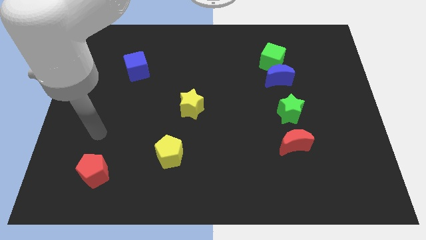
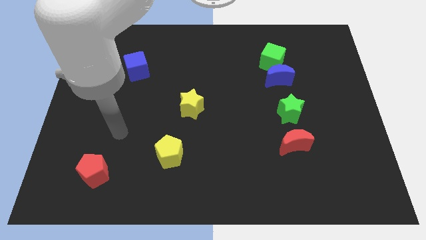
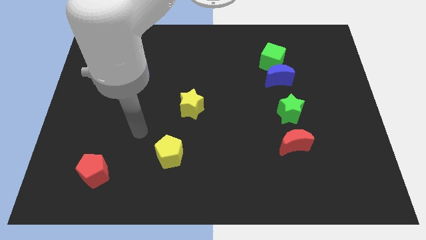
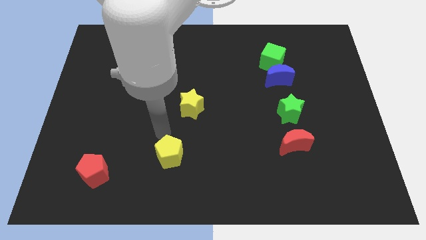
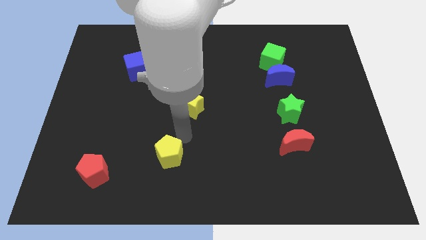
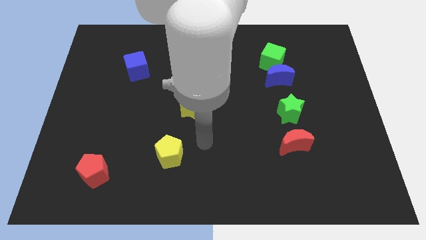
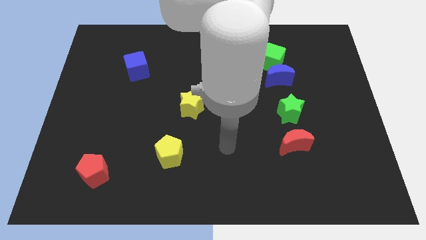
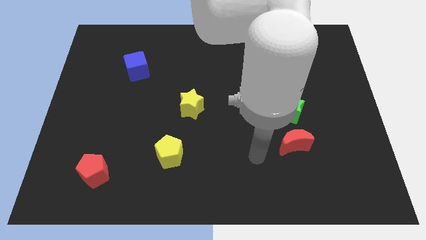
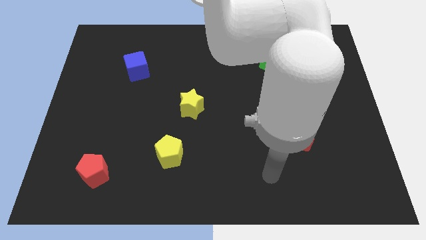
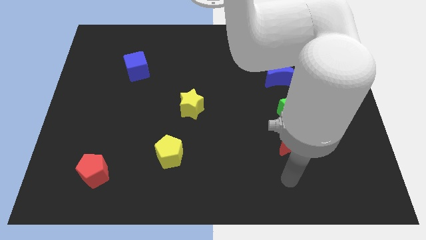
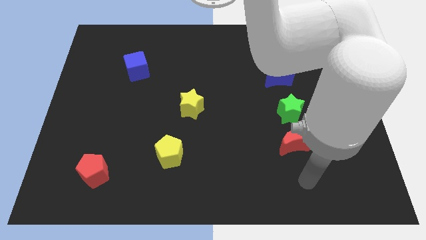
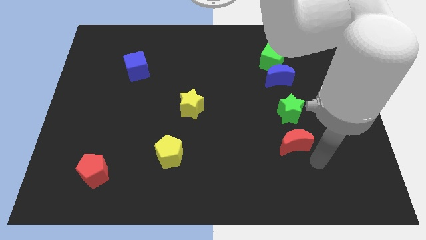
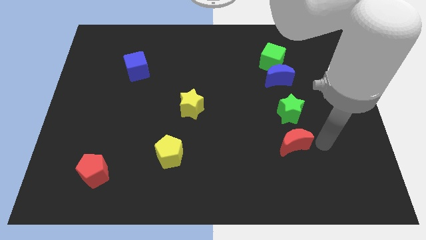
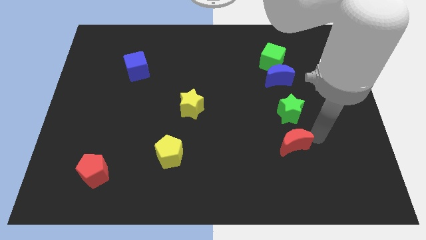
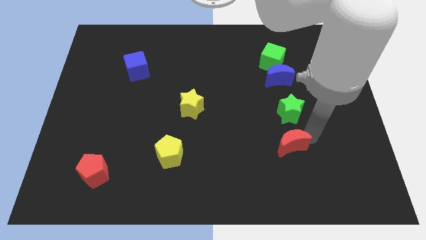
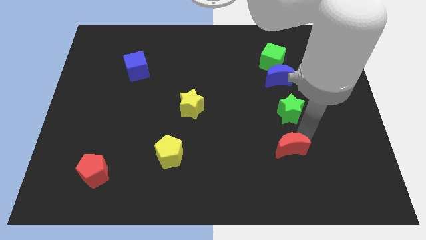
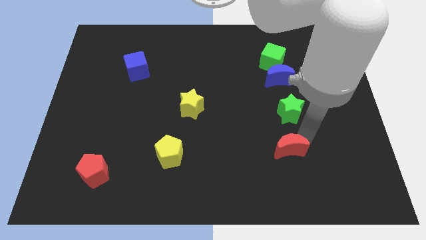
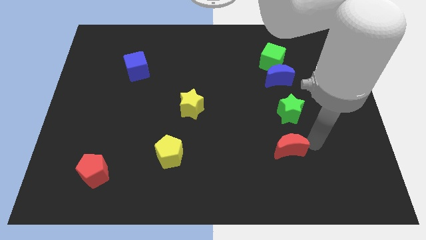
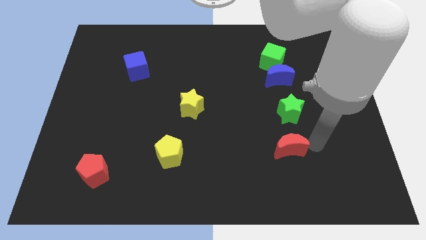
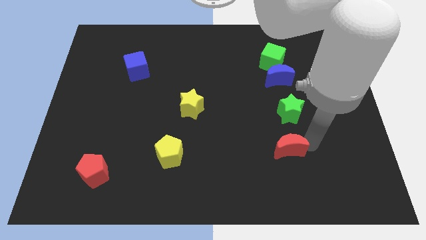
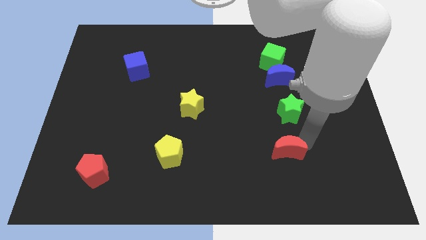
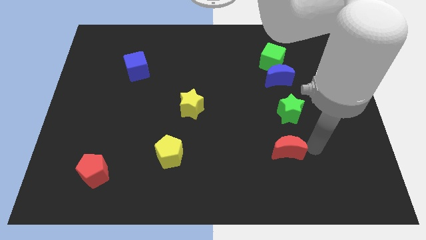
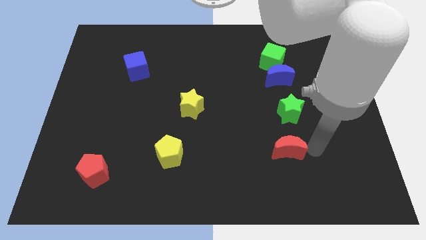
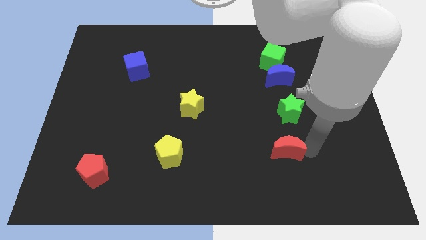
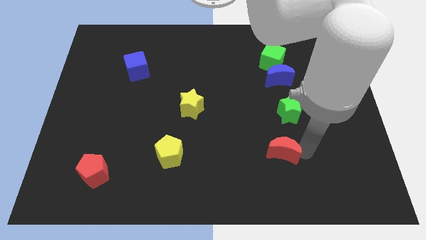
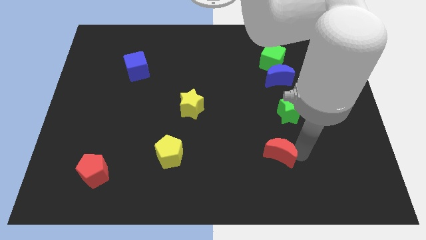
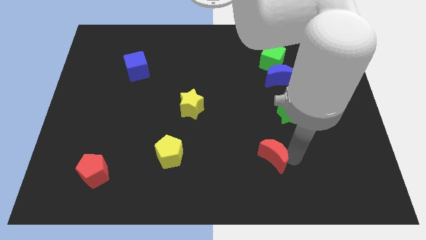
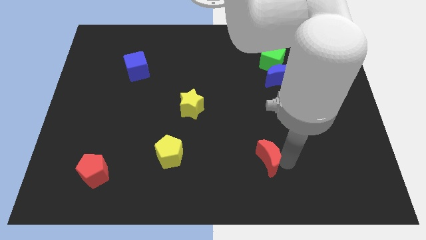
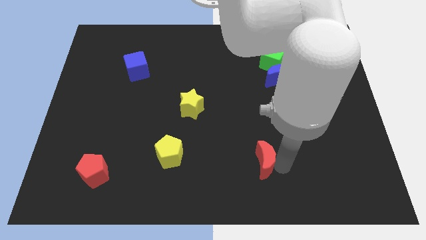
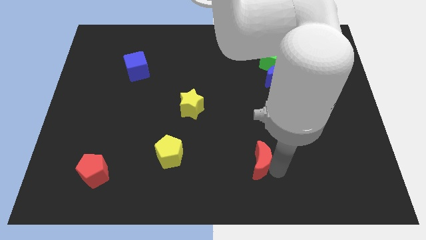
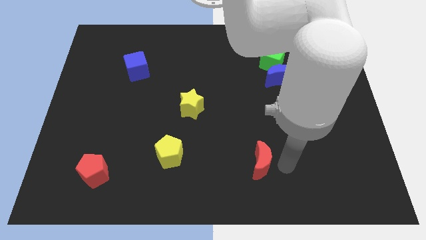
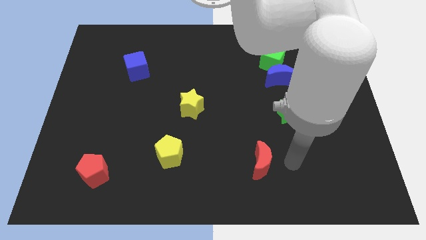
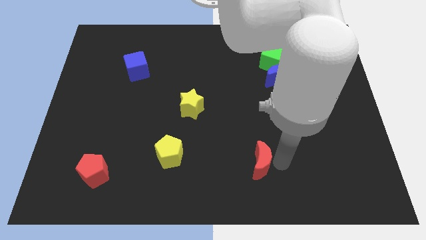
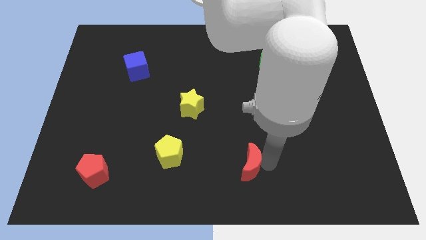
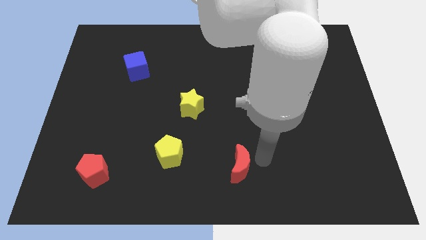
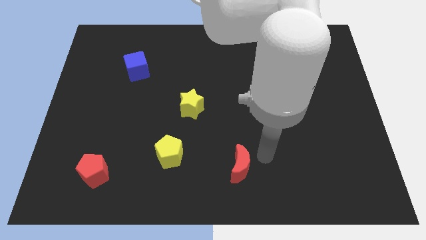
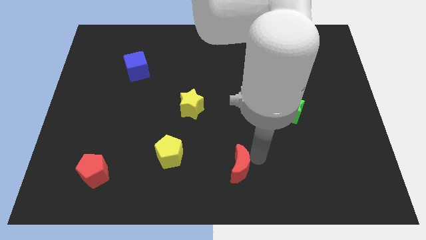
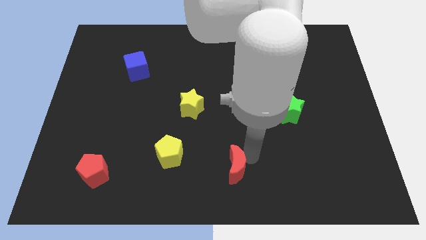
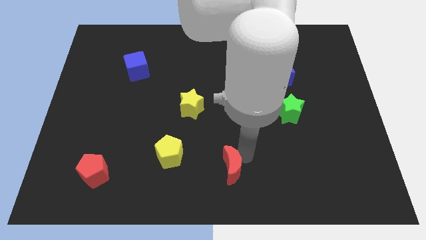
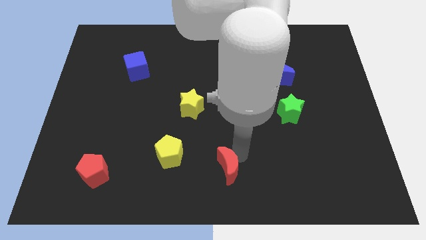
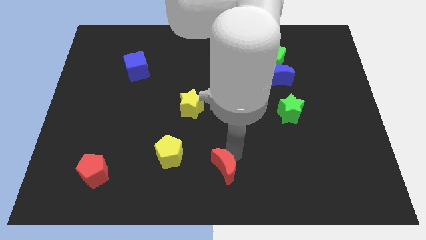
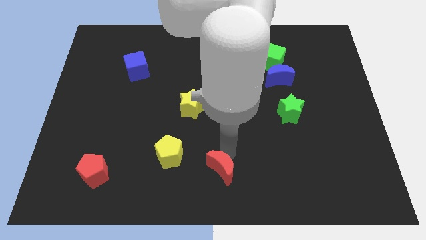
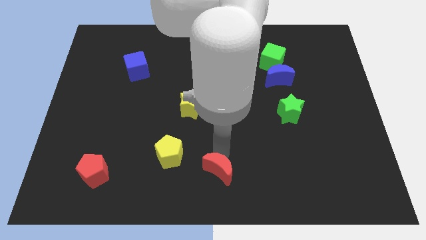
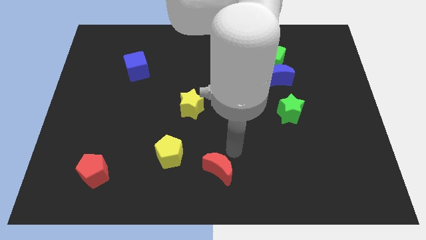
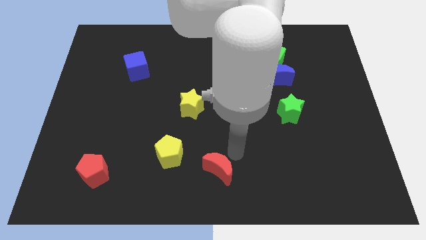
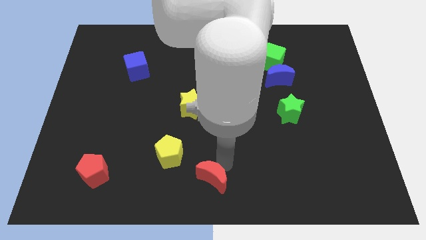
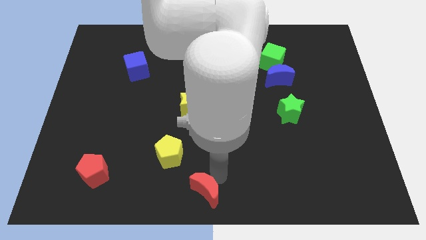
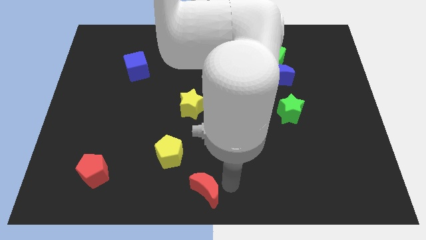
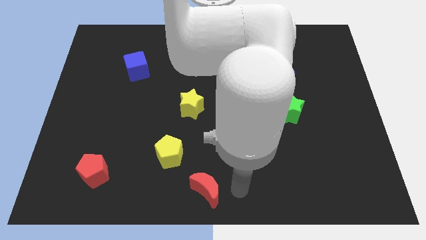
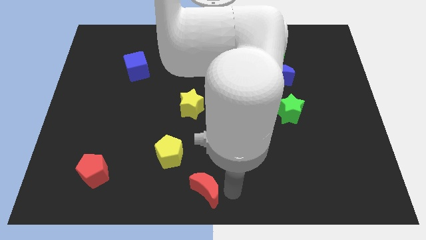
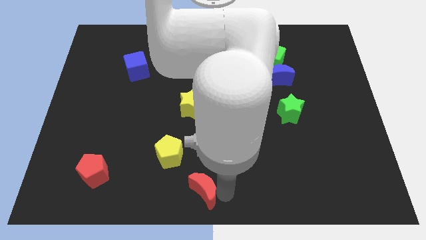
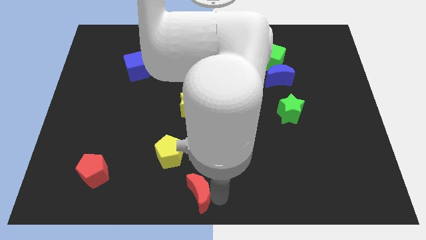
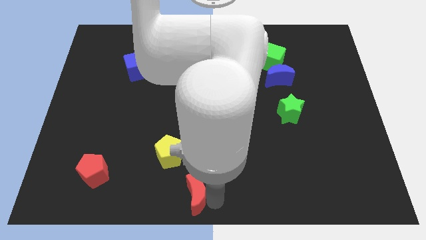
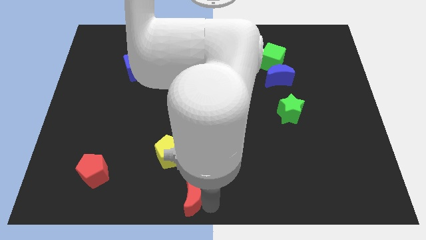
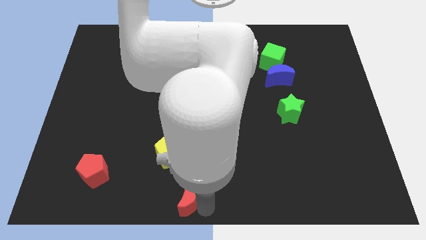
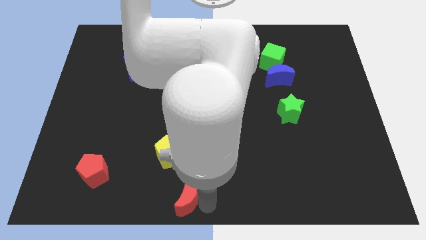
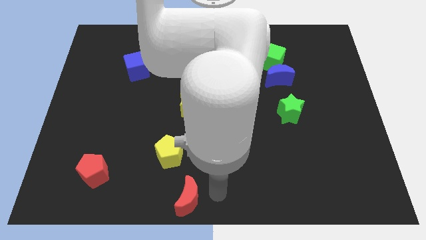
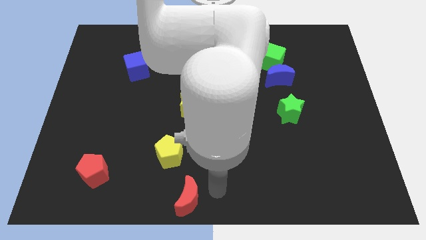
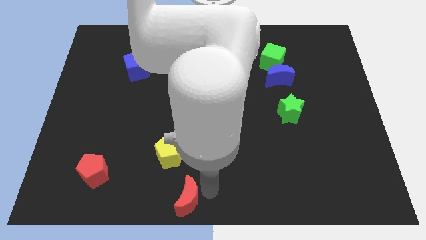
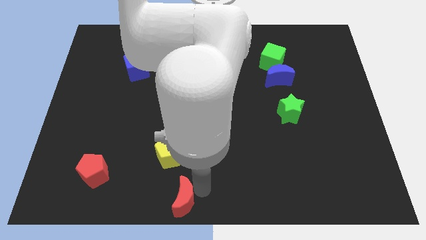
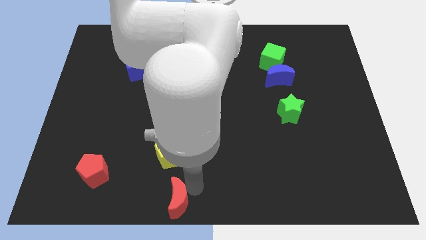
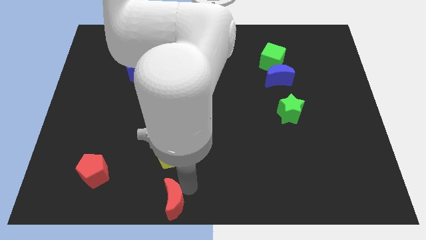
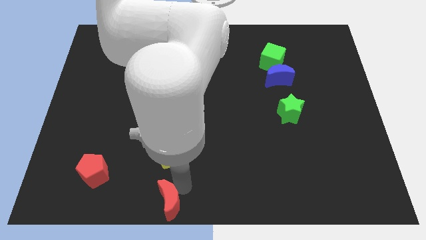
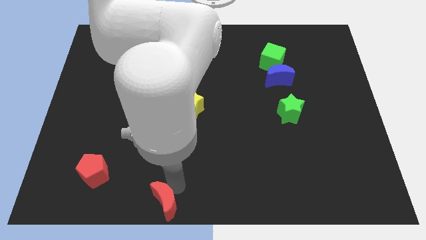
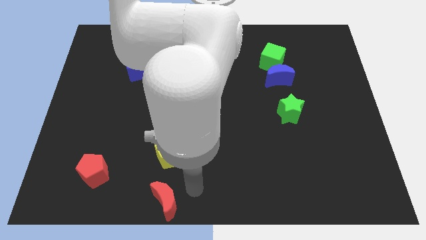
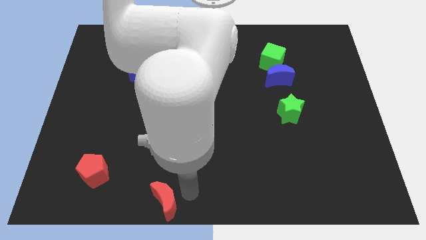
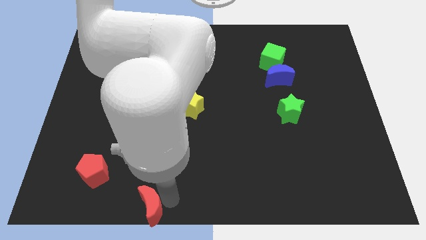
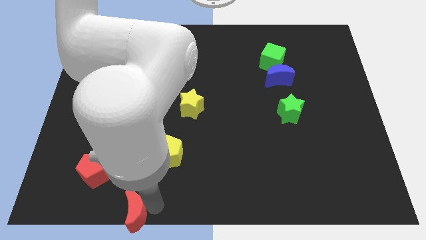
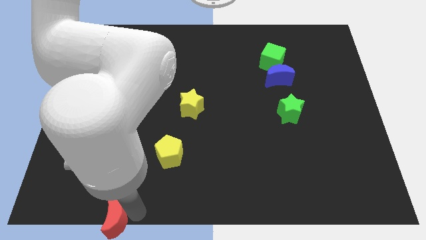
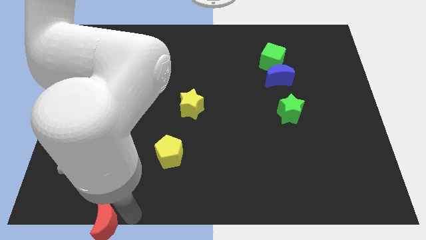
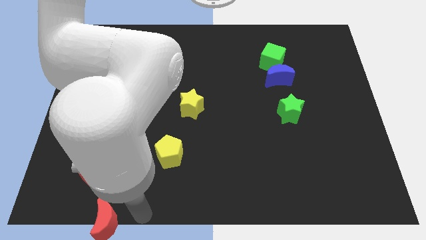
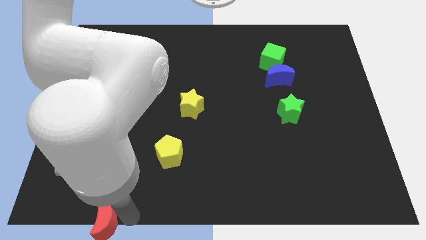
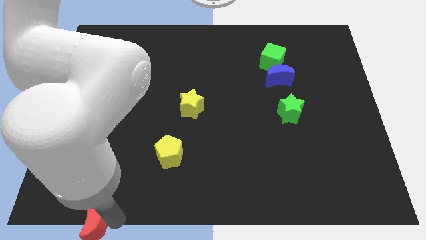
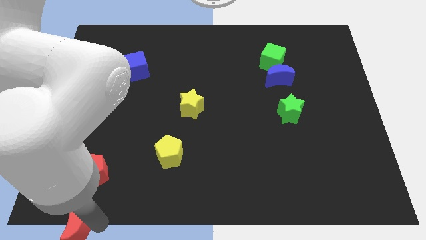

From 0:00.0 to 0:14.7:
slide the red moon to the bottom left of the board
